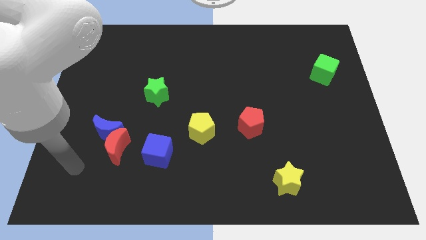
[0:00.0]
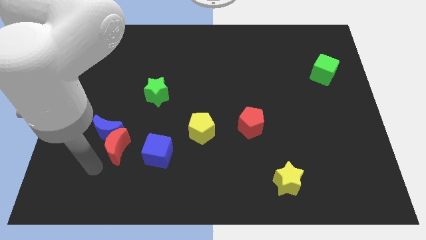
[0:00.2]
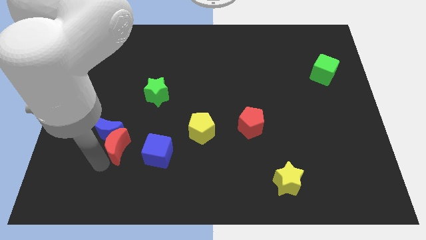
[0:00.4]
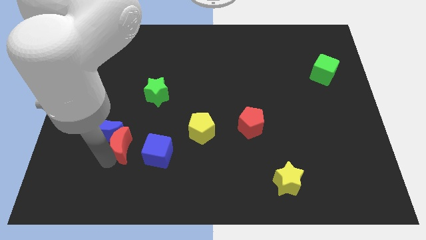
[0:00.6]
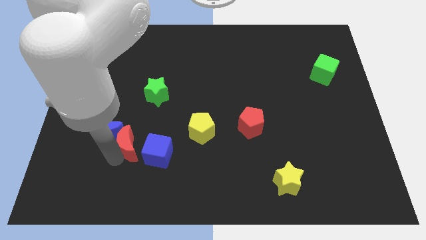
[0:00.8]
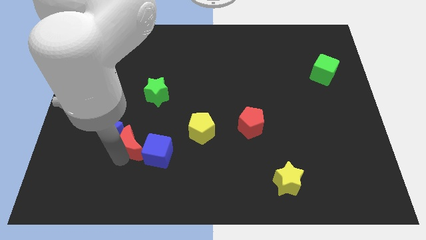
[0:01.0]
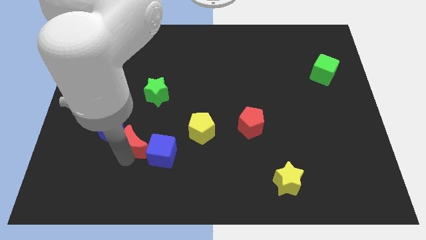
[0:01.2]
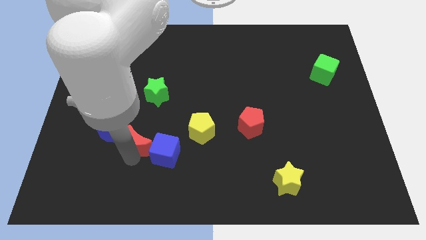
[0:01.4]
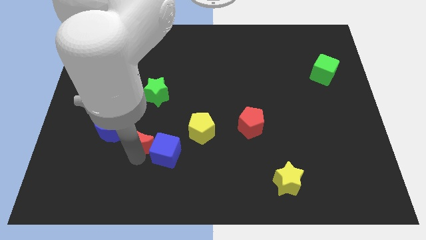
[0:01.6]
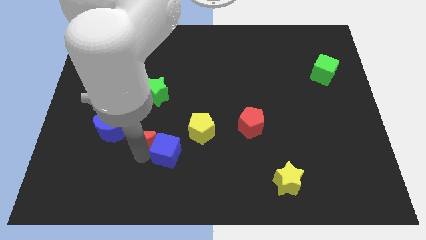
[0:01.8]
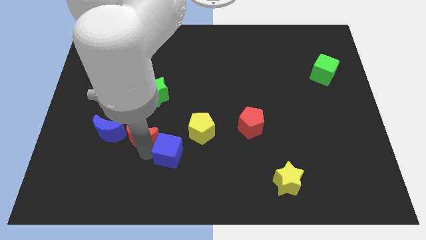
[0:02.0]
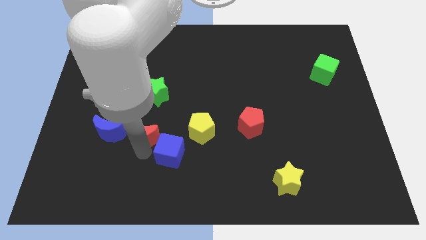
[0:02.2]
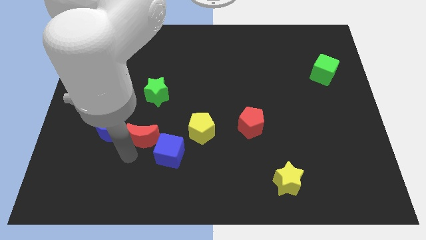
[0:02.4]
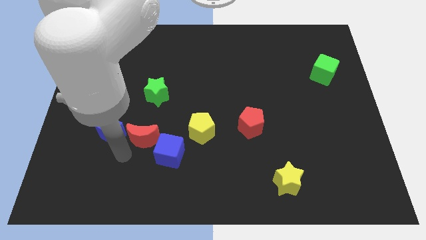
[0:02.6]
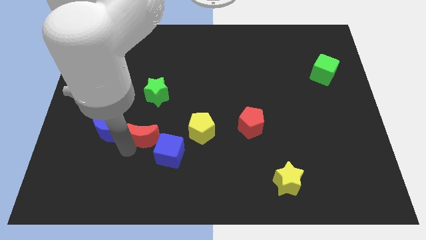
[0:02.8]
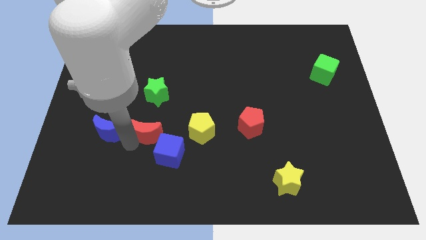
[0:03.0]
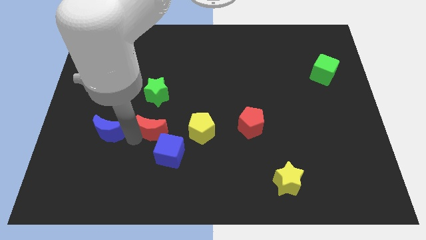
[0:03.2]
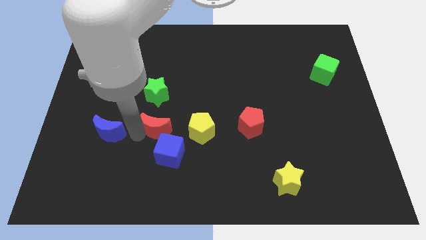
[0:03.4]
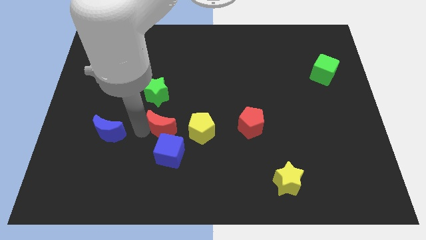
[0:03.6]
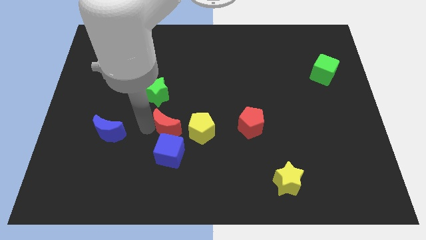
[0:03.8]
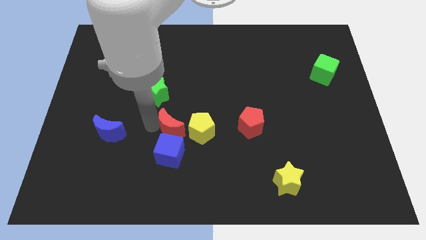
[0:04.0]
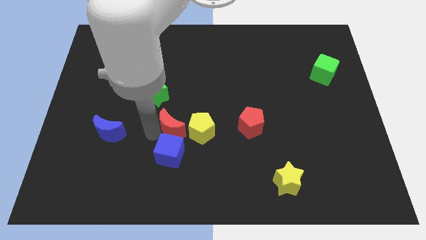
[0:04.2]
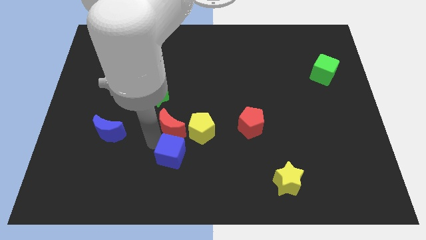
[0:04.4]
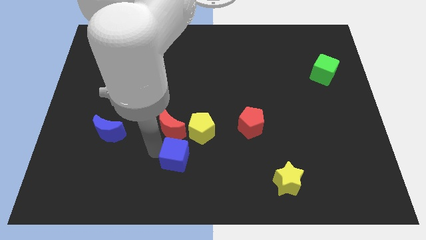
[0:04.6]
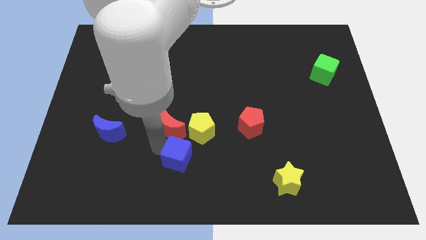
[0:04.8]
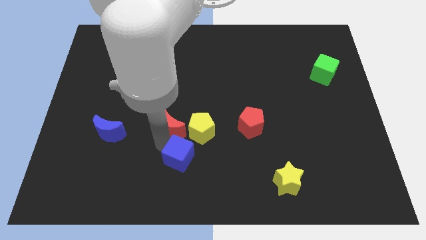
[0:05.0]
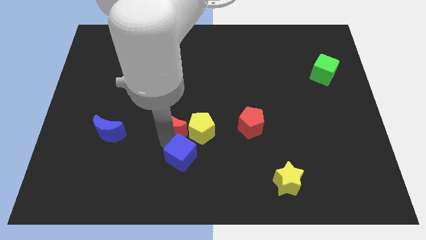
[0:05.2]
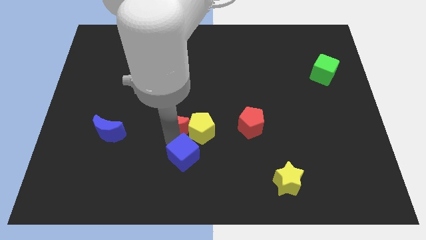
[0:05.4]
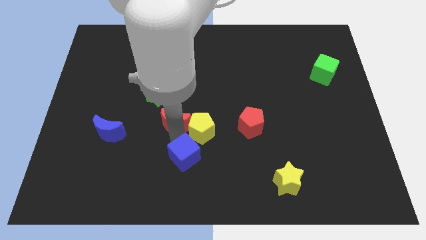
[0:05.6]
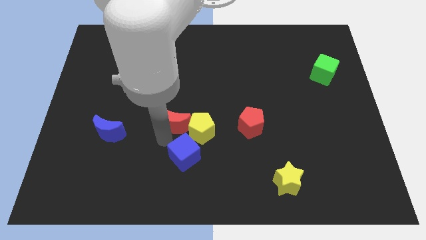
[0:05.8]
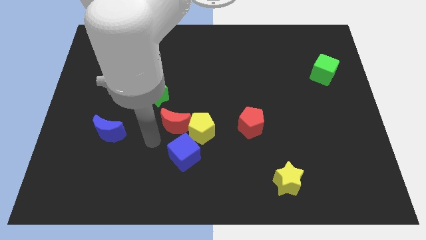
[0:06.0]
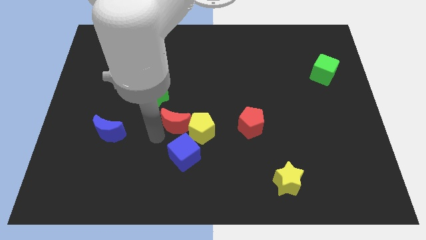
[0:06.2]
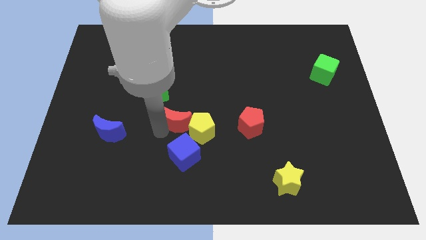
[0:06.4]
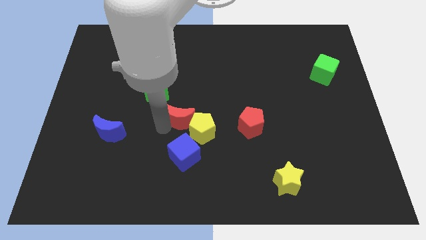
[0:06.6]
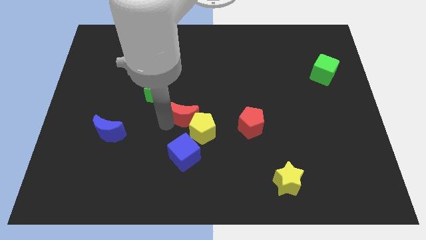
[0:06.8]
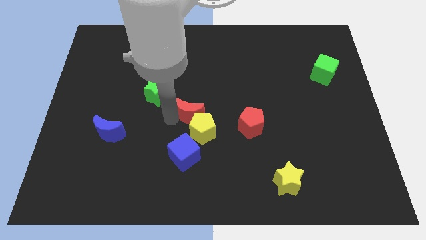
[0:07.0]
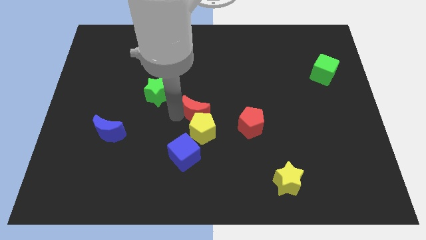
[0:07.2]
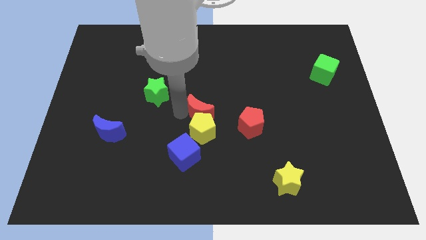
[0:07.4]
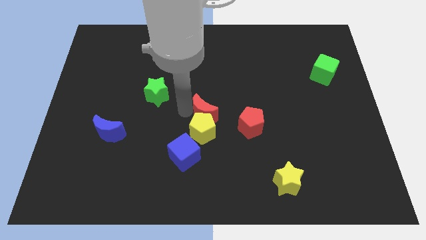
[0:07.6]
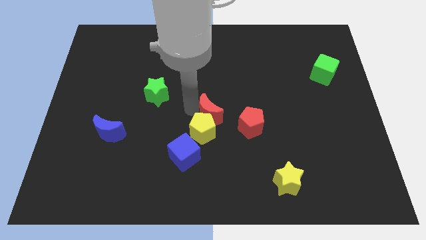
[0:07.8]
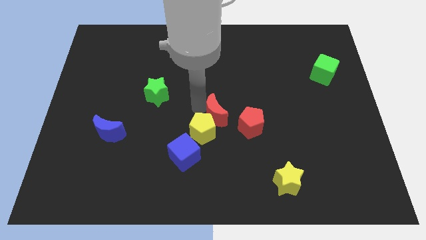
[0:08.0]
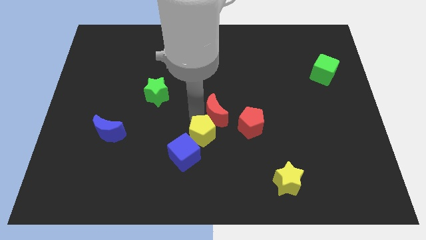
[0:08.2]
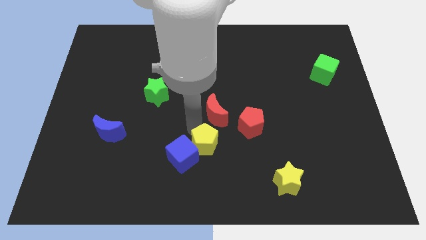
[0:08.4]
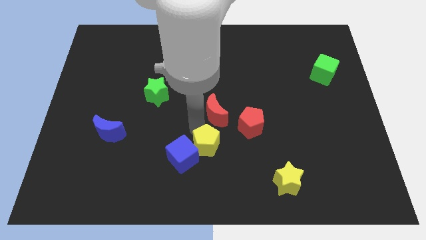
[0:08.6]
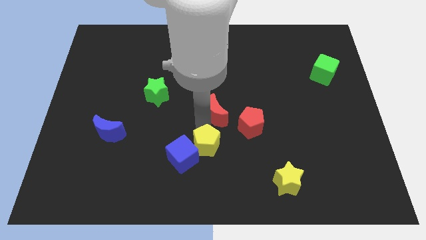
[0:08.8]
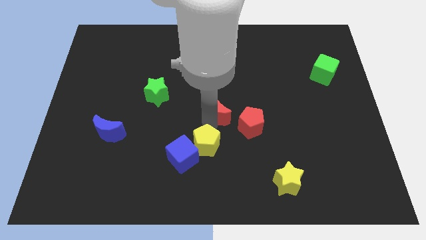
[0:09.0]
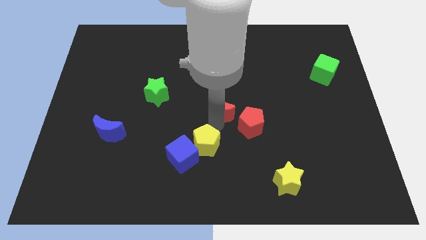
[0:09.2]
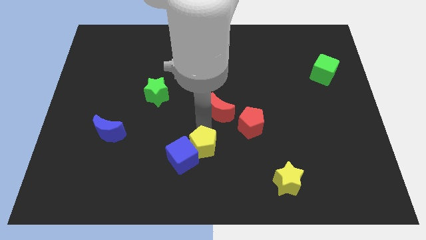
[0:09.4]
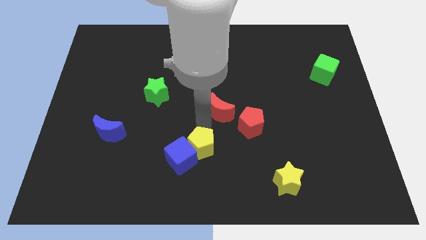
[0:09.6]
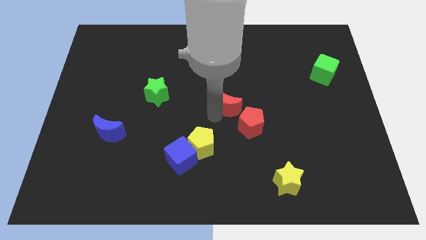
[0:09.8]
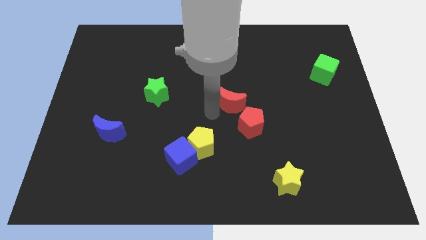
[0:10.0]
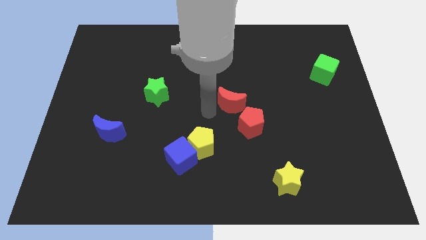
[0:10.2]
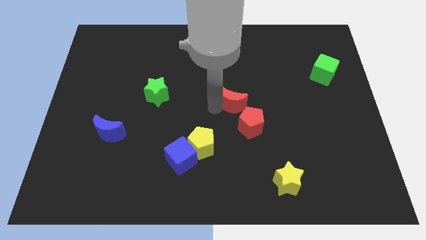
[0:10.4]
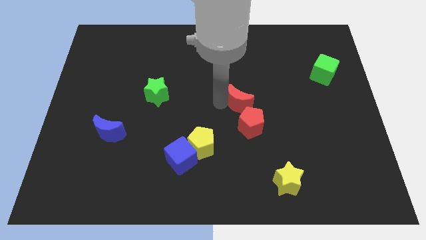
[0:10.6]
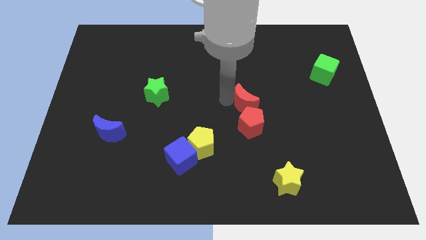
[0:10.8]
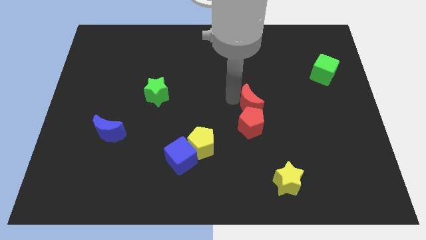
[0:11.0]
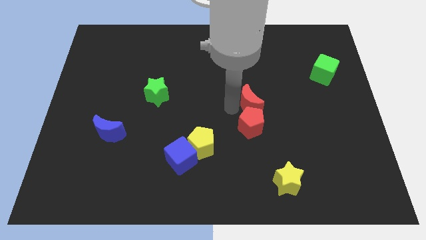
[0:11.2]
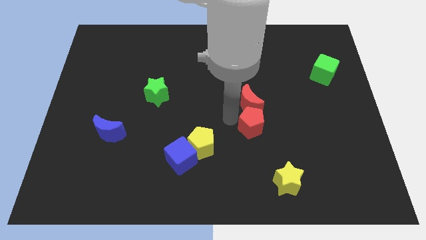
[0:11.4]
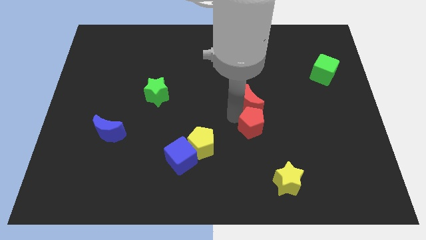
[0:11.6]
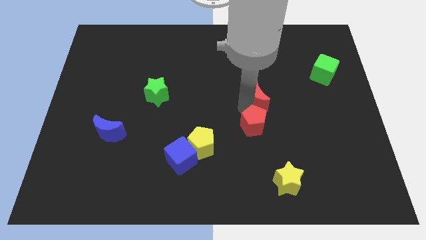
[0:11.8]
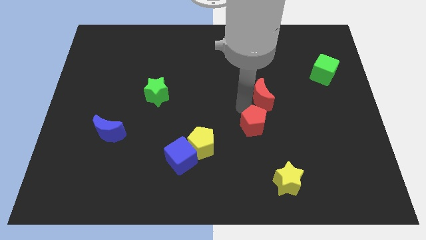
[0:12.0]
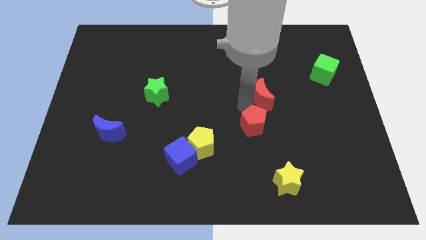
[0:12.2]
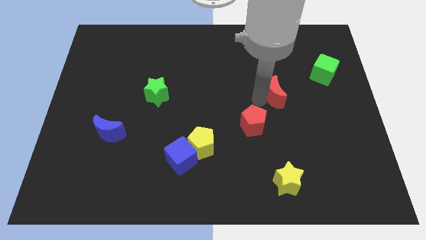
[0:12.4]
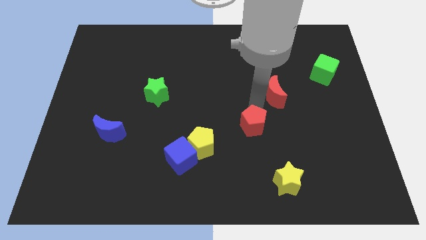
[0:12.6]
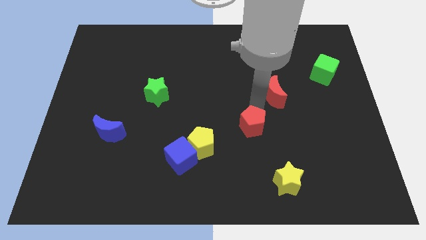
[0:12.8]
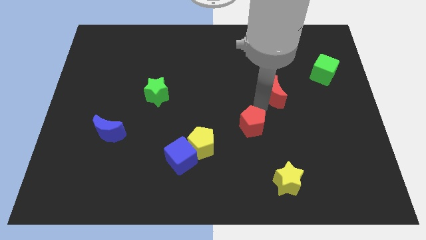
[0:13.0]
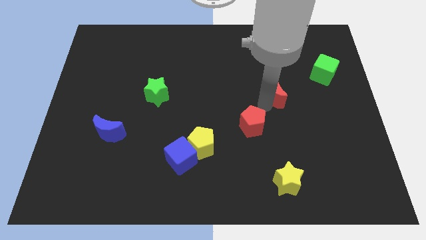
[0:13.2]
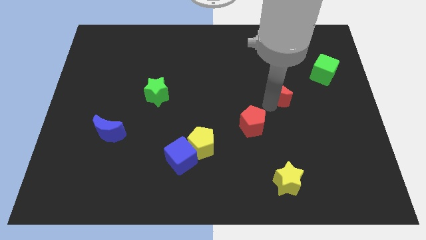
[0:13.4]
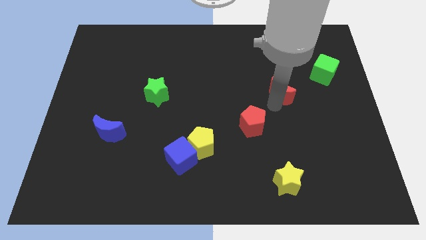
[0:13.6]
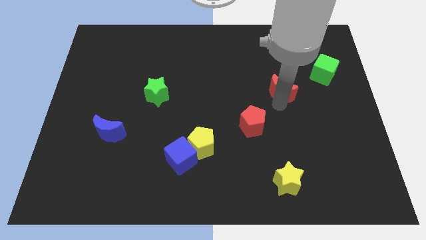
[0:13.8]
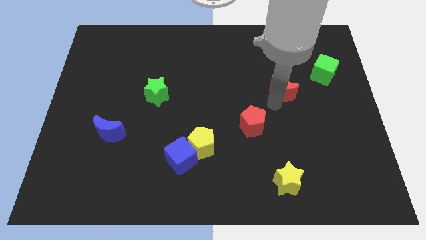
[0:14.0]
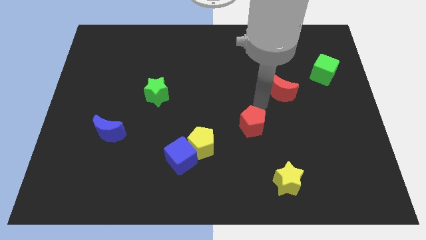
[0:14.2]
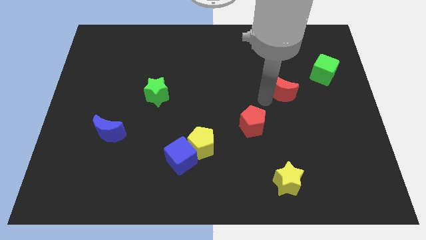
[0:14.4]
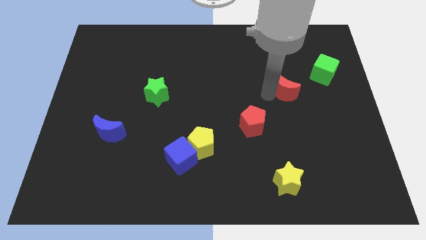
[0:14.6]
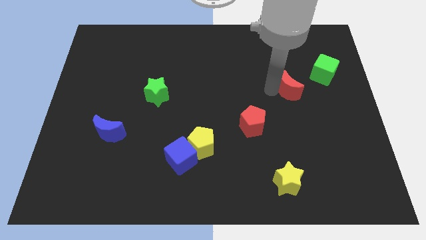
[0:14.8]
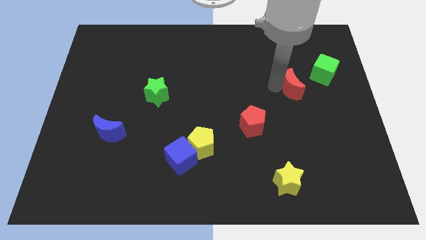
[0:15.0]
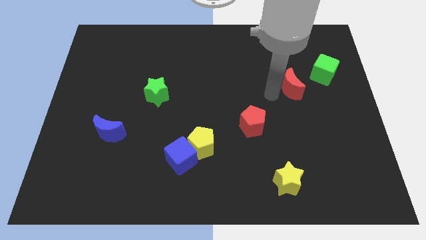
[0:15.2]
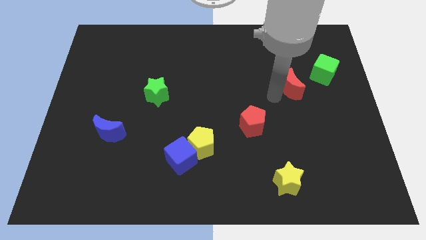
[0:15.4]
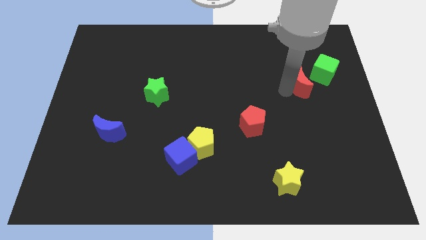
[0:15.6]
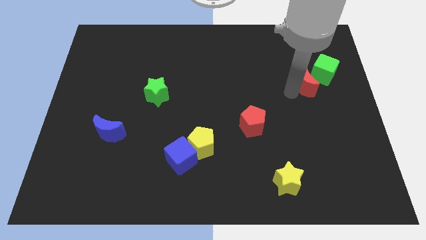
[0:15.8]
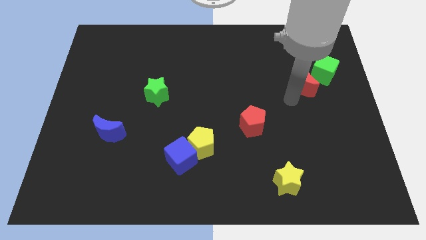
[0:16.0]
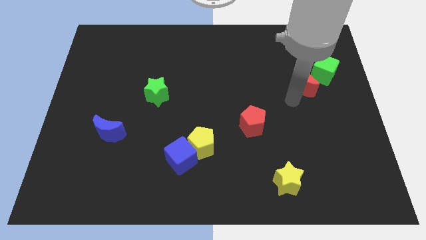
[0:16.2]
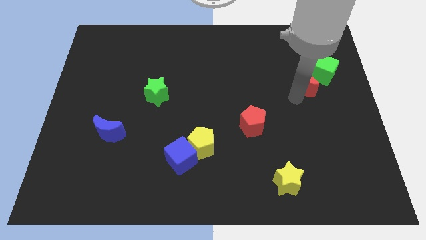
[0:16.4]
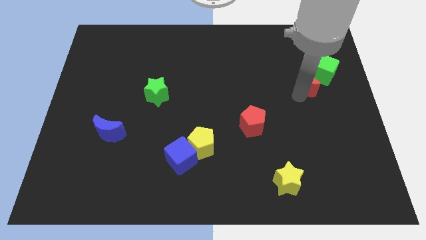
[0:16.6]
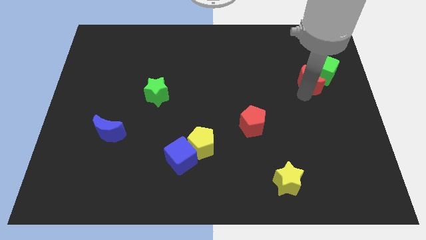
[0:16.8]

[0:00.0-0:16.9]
push the red moon to the green cube
